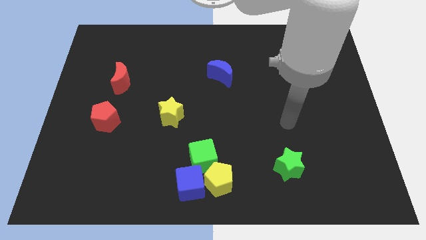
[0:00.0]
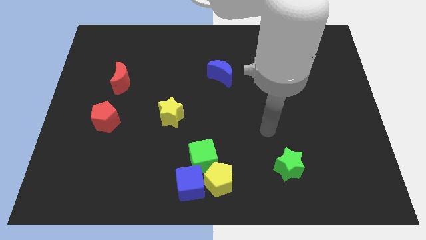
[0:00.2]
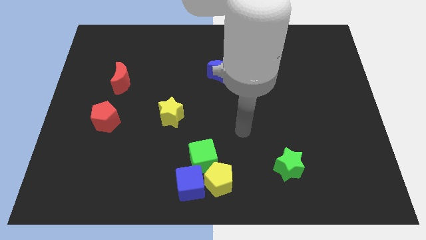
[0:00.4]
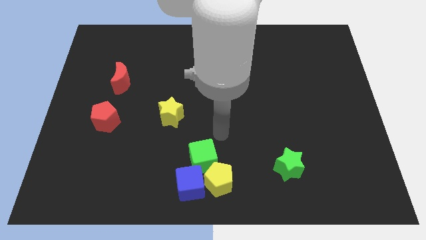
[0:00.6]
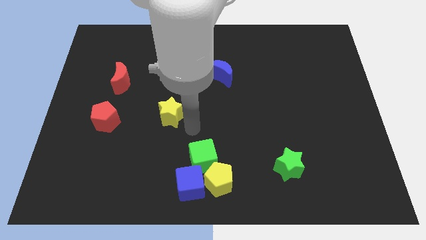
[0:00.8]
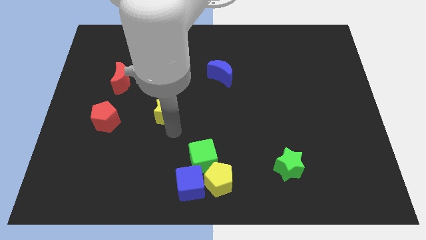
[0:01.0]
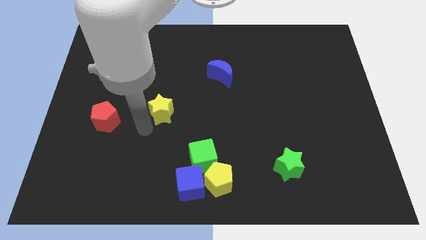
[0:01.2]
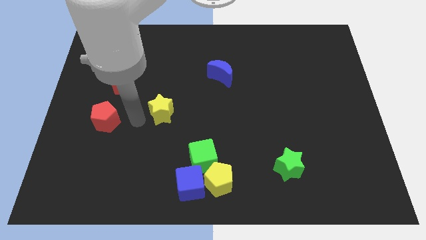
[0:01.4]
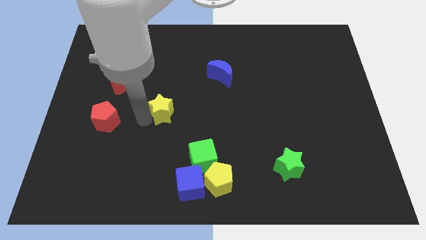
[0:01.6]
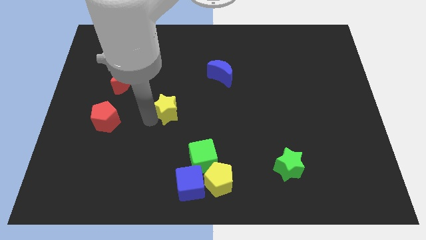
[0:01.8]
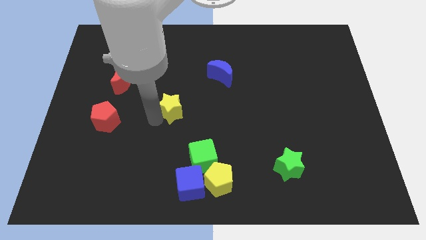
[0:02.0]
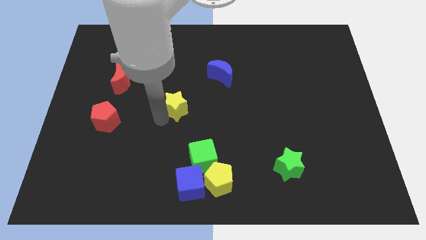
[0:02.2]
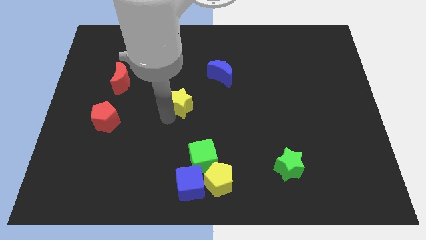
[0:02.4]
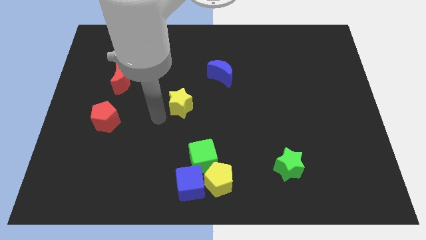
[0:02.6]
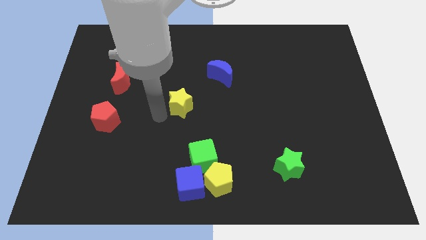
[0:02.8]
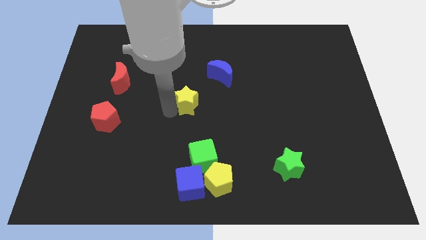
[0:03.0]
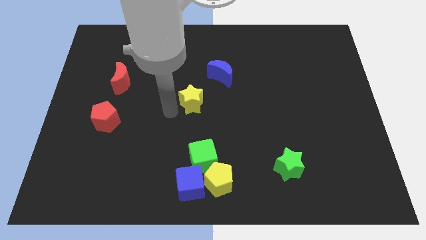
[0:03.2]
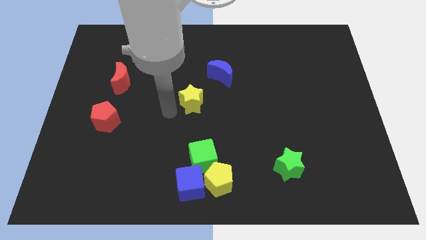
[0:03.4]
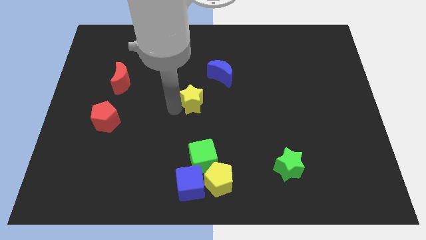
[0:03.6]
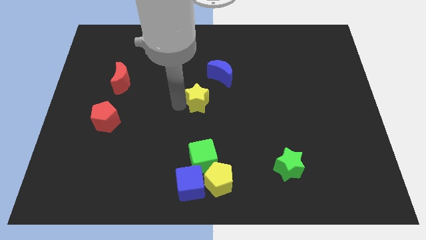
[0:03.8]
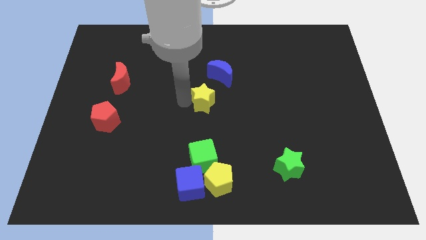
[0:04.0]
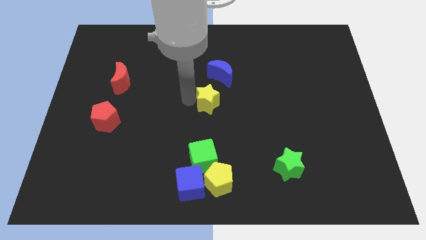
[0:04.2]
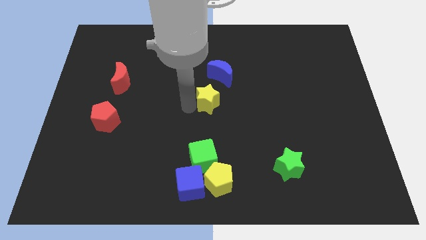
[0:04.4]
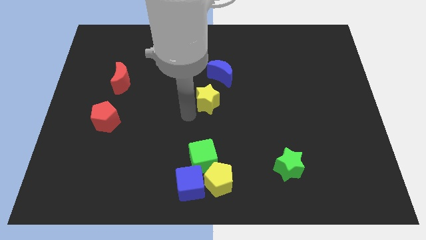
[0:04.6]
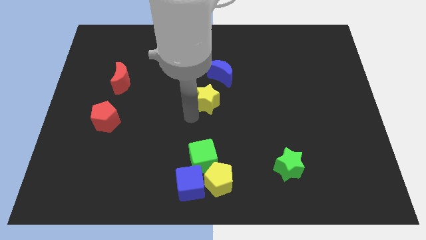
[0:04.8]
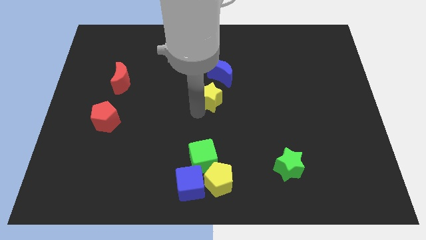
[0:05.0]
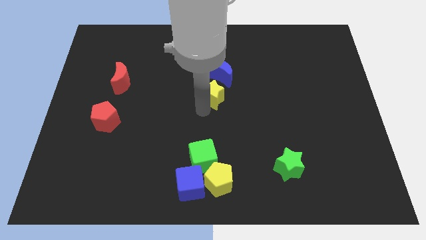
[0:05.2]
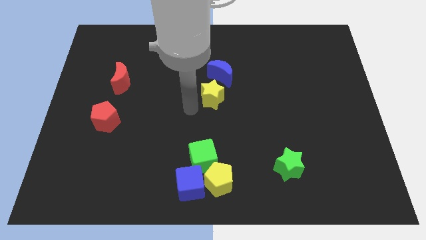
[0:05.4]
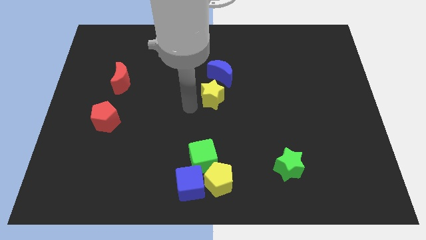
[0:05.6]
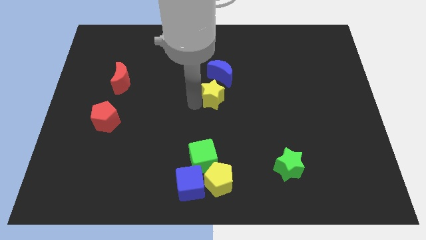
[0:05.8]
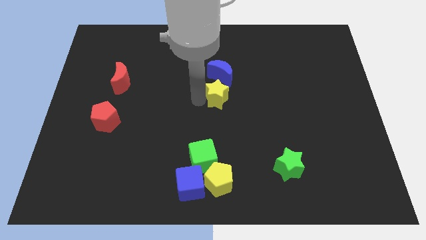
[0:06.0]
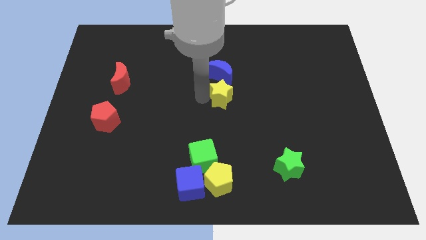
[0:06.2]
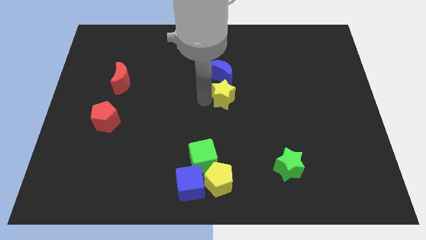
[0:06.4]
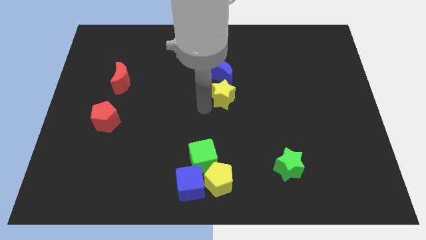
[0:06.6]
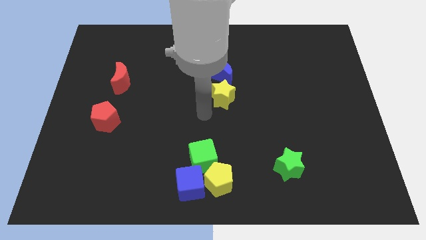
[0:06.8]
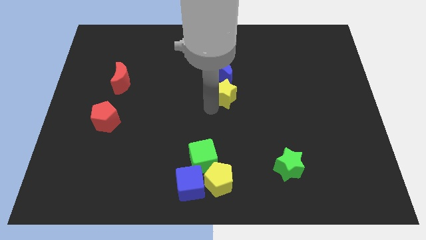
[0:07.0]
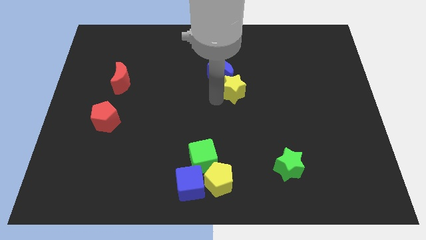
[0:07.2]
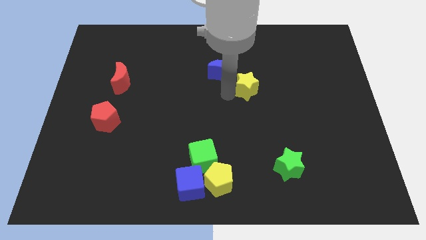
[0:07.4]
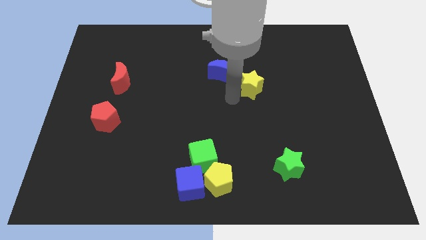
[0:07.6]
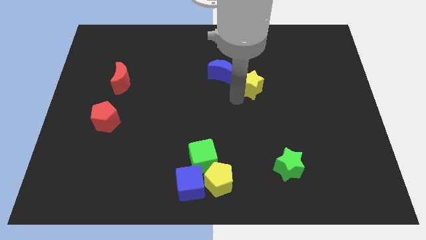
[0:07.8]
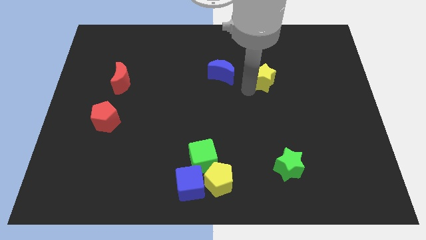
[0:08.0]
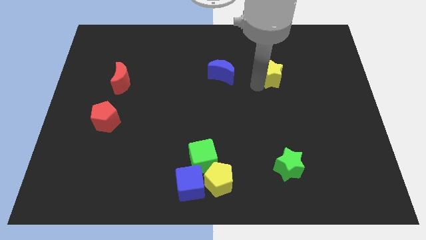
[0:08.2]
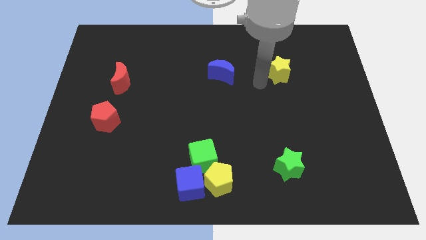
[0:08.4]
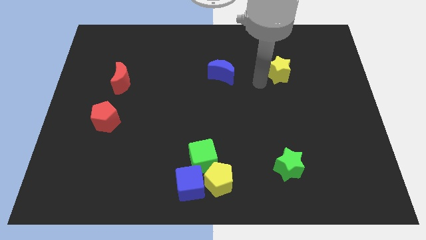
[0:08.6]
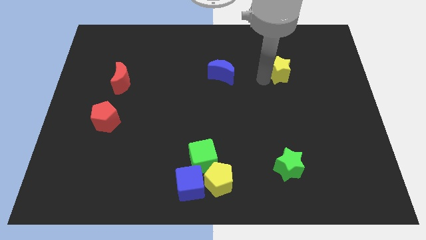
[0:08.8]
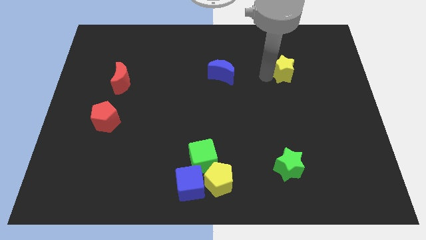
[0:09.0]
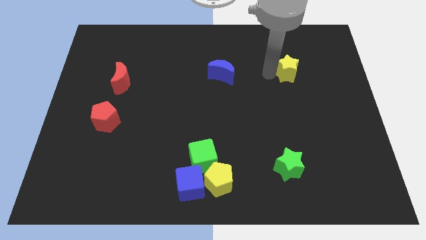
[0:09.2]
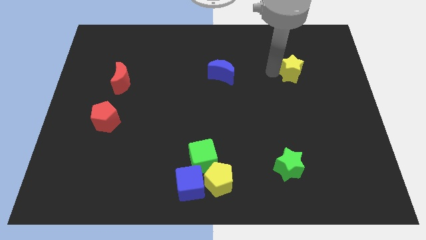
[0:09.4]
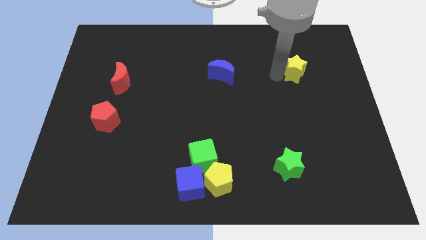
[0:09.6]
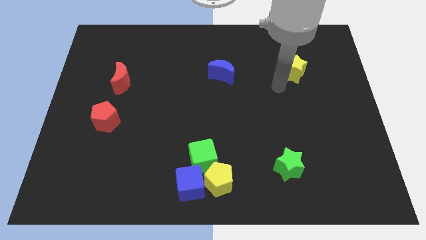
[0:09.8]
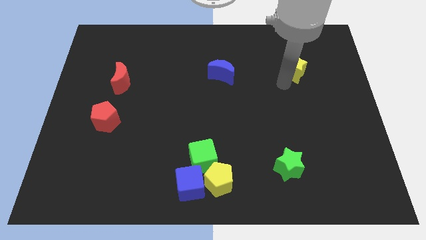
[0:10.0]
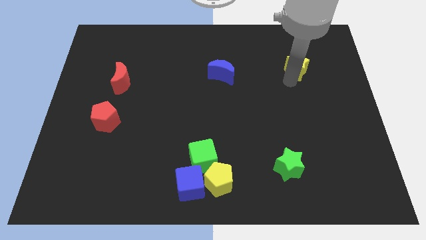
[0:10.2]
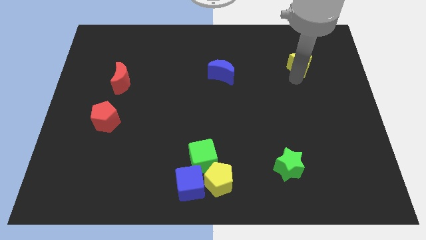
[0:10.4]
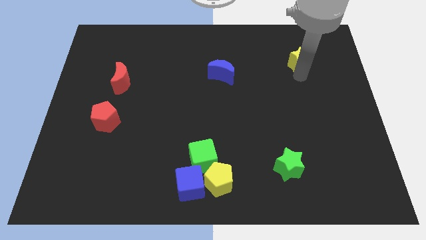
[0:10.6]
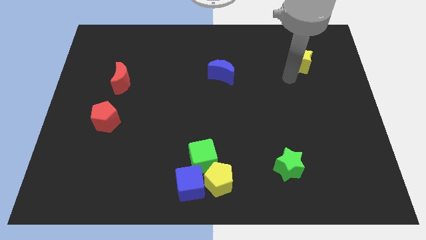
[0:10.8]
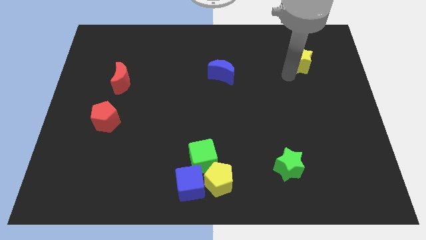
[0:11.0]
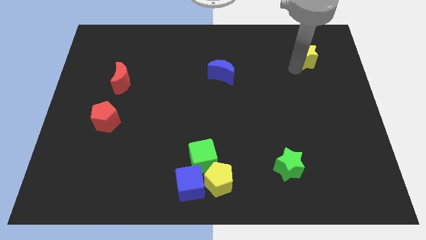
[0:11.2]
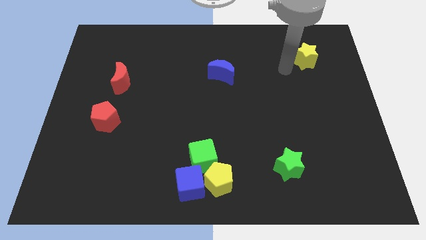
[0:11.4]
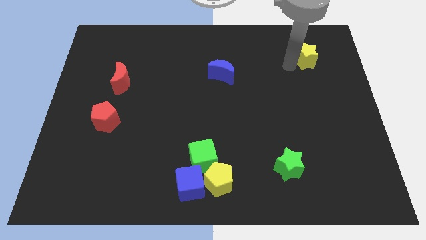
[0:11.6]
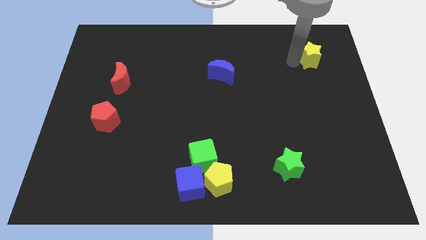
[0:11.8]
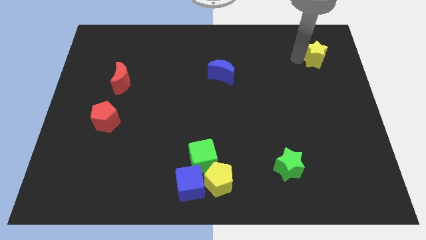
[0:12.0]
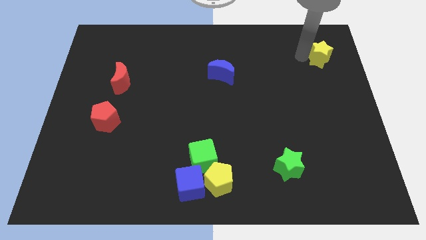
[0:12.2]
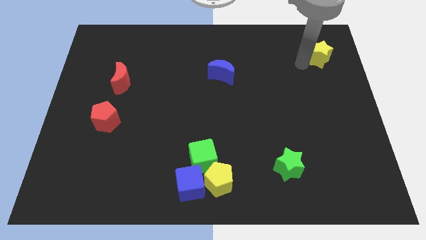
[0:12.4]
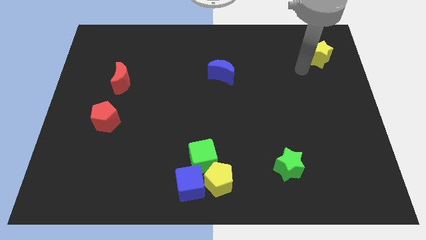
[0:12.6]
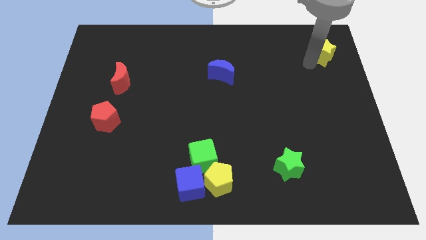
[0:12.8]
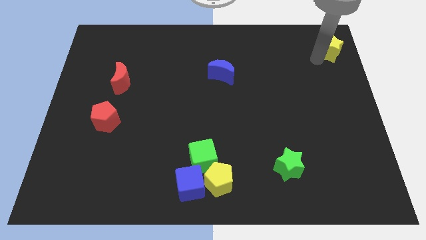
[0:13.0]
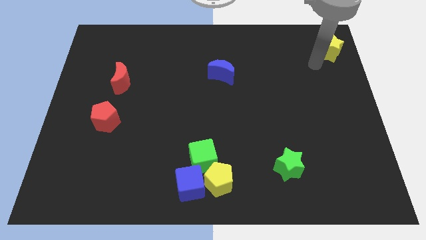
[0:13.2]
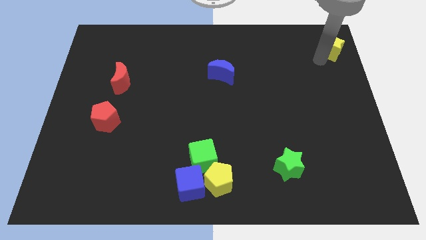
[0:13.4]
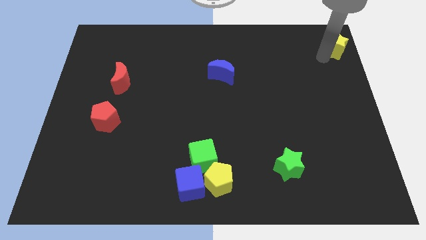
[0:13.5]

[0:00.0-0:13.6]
put the yellow star to the top right of the board

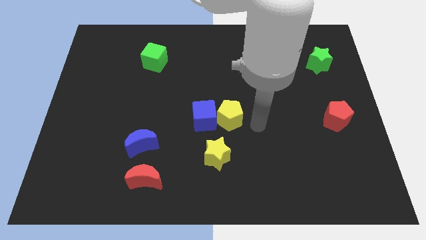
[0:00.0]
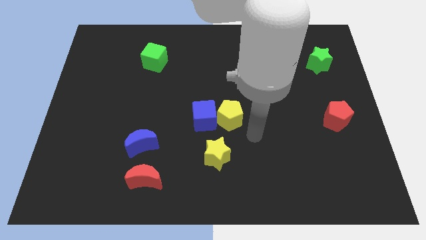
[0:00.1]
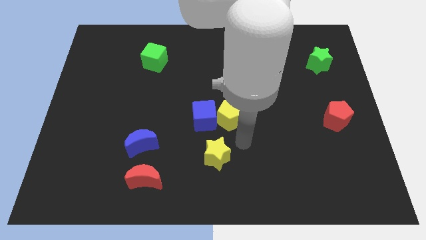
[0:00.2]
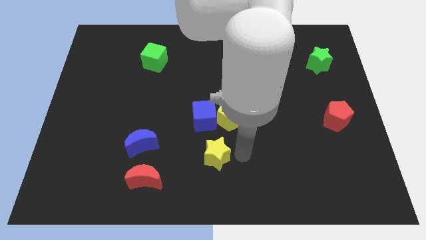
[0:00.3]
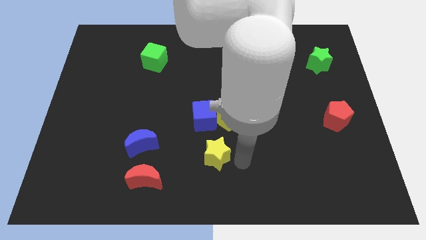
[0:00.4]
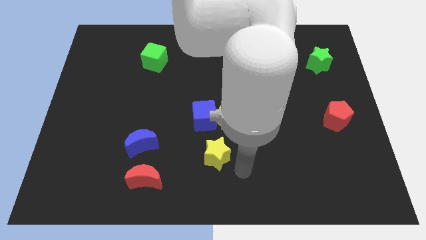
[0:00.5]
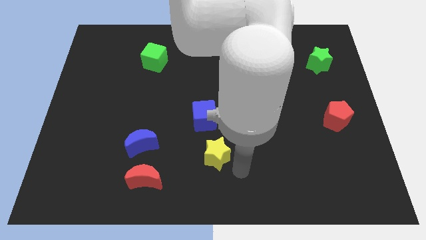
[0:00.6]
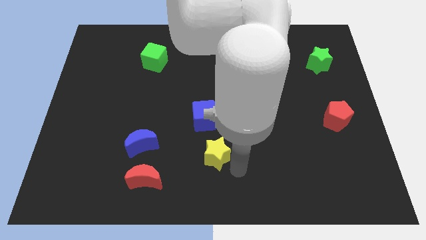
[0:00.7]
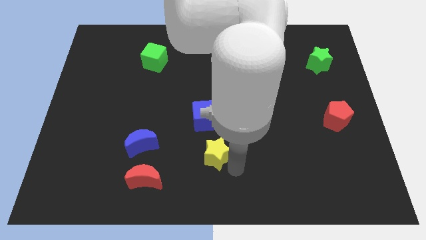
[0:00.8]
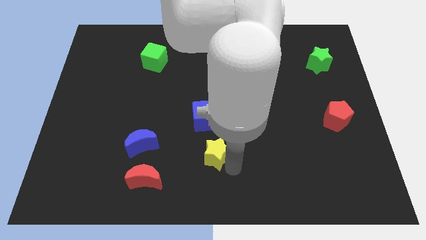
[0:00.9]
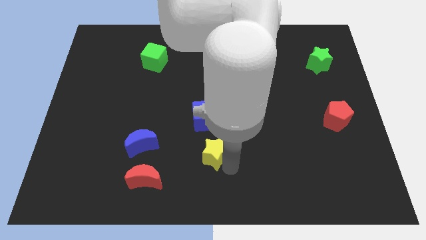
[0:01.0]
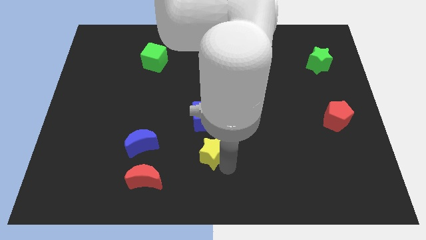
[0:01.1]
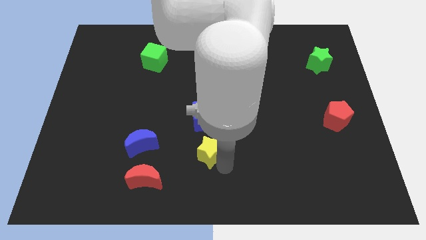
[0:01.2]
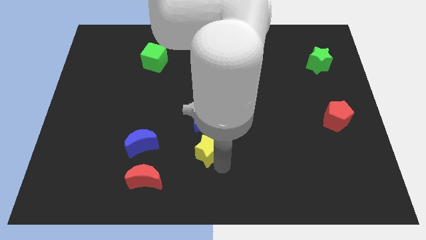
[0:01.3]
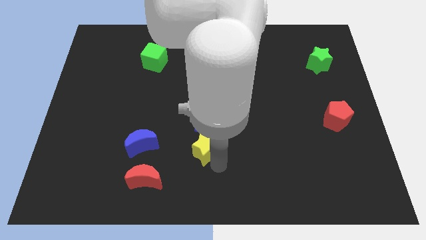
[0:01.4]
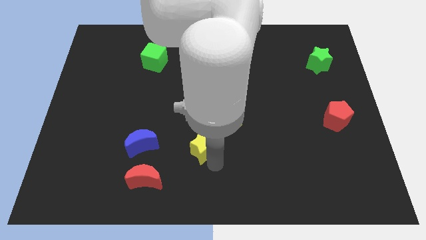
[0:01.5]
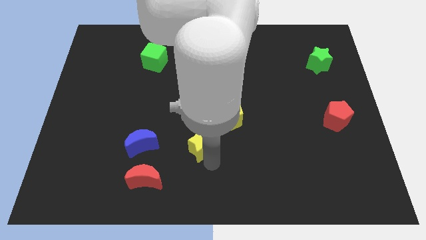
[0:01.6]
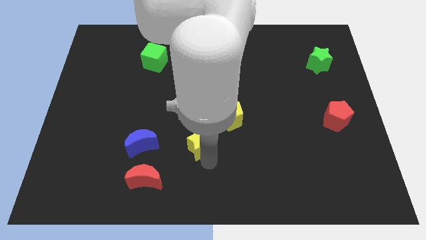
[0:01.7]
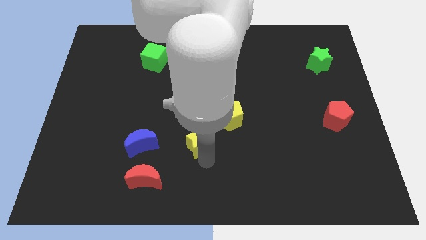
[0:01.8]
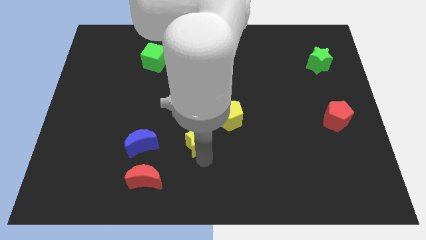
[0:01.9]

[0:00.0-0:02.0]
slide the yellow star to the middle
